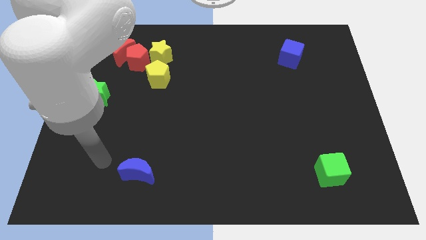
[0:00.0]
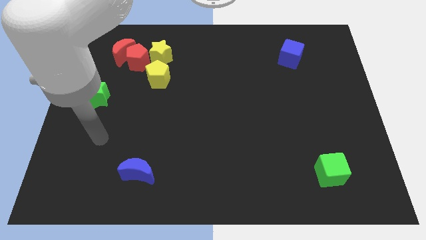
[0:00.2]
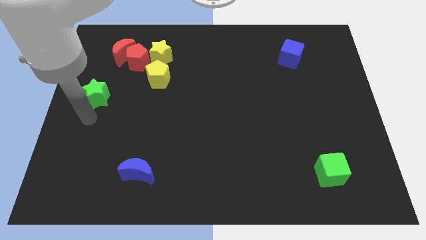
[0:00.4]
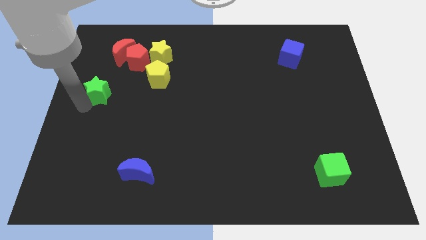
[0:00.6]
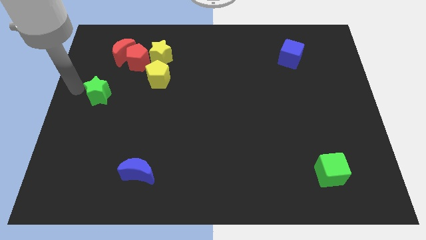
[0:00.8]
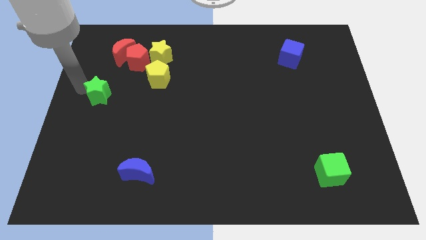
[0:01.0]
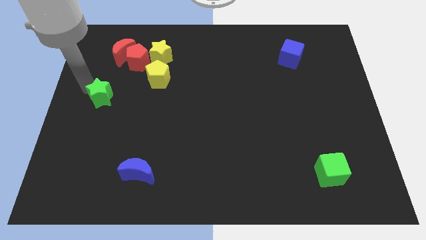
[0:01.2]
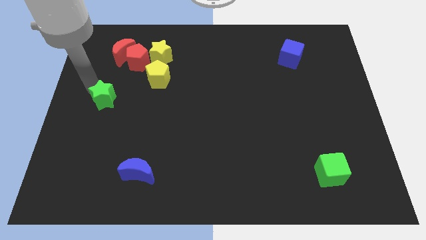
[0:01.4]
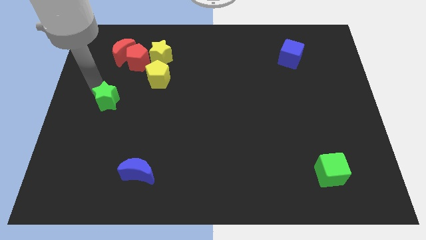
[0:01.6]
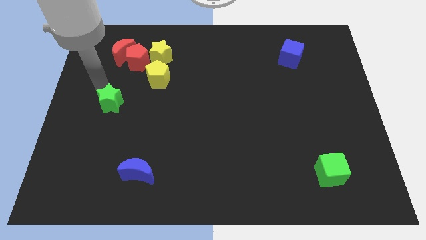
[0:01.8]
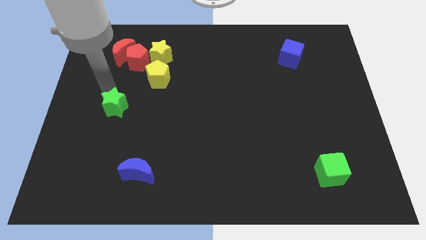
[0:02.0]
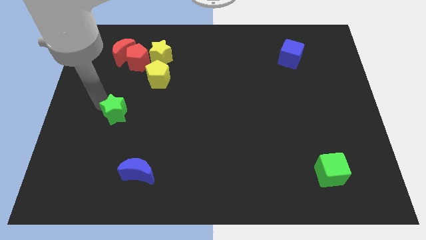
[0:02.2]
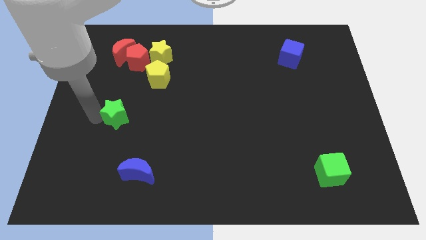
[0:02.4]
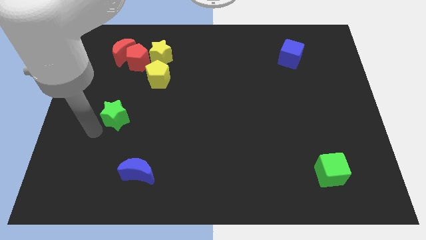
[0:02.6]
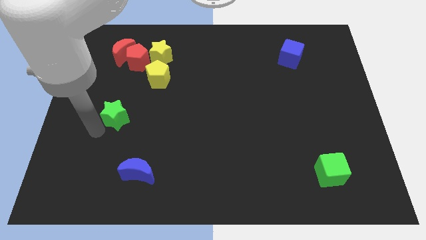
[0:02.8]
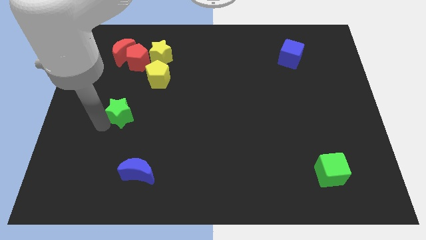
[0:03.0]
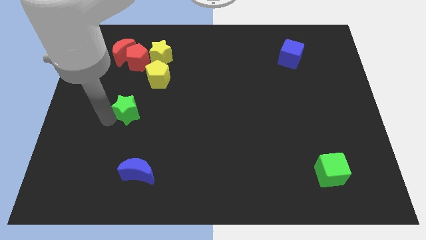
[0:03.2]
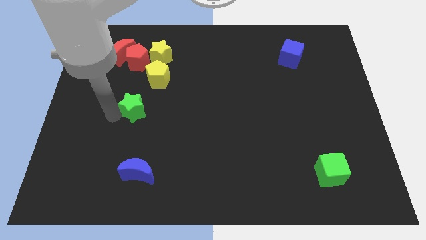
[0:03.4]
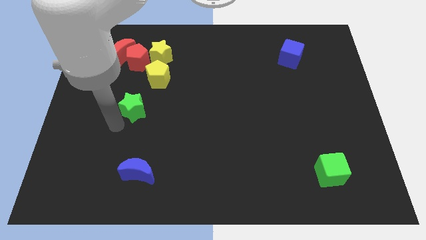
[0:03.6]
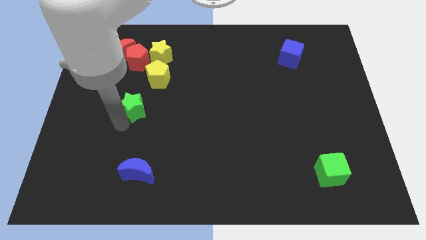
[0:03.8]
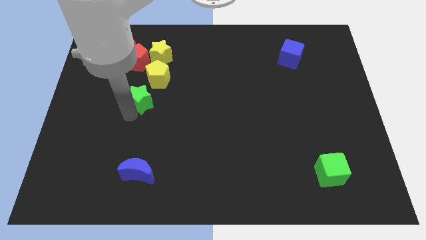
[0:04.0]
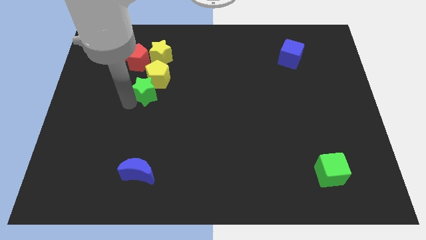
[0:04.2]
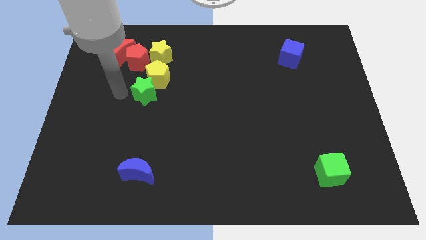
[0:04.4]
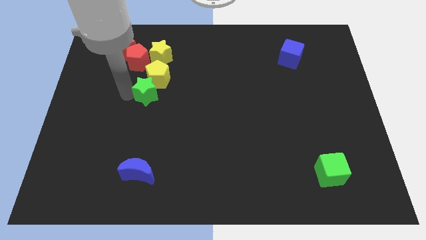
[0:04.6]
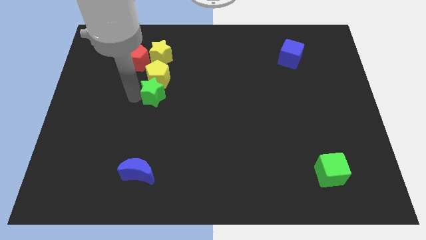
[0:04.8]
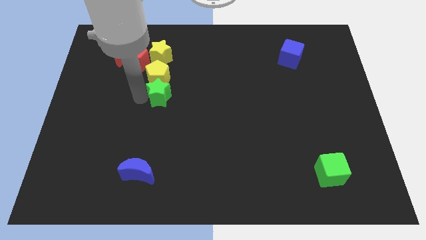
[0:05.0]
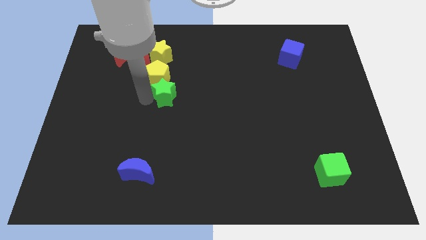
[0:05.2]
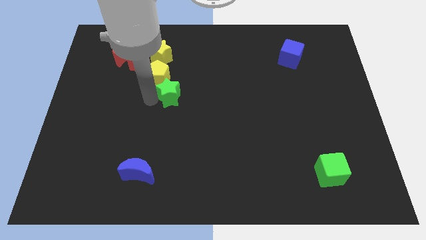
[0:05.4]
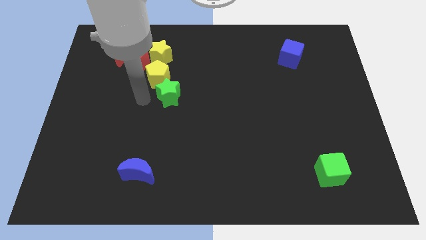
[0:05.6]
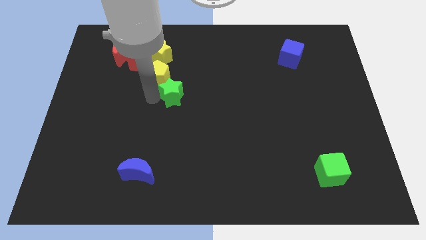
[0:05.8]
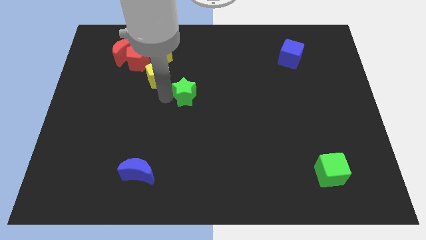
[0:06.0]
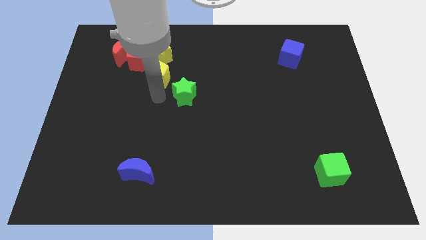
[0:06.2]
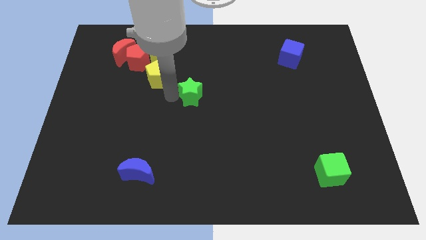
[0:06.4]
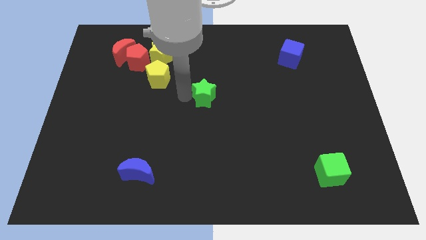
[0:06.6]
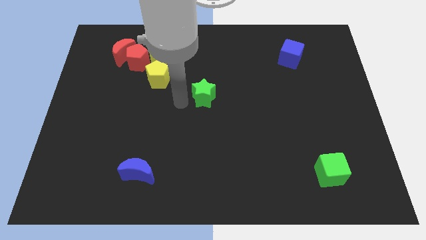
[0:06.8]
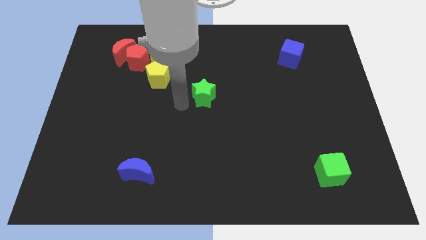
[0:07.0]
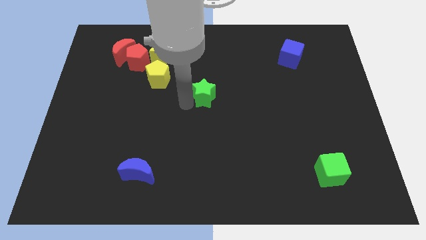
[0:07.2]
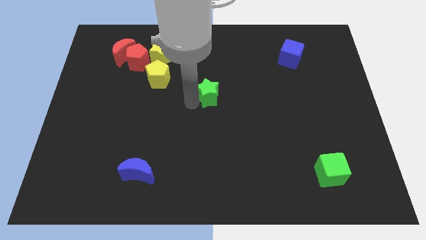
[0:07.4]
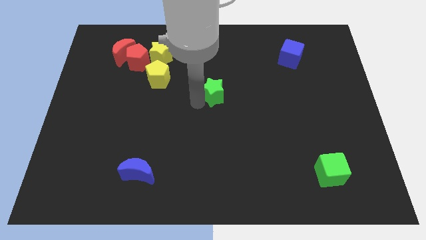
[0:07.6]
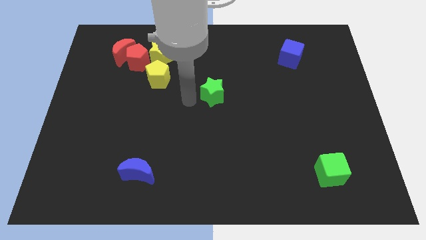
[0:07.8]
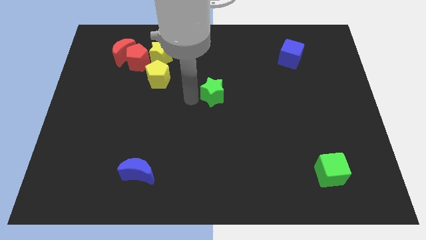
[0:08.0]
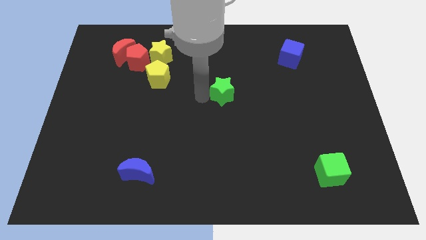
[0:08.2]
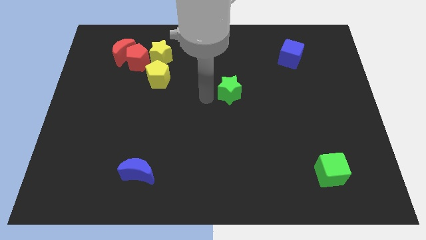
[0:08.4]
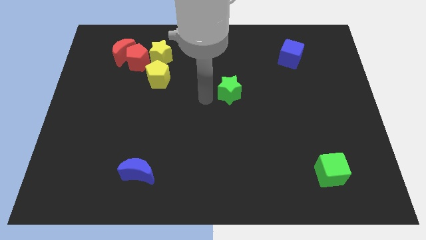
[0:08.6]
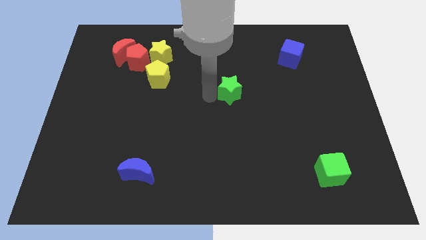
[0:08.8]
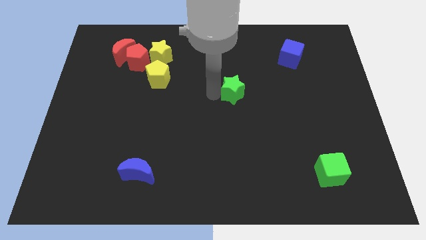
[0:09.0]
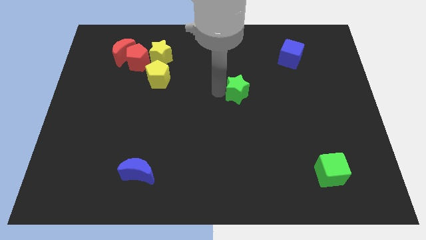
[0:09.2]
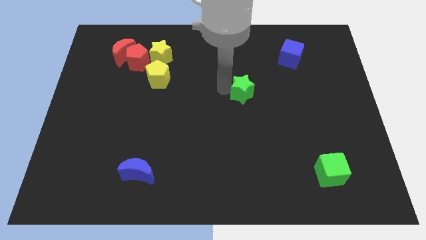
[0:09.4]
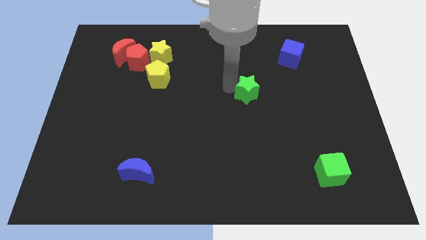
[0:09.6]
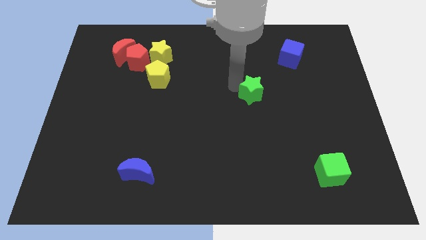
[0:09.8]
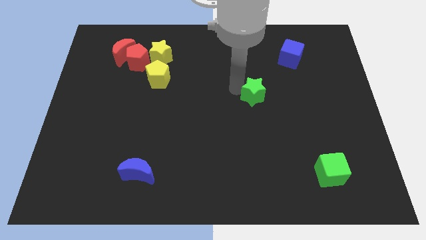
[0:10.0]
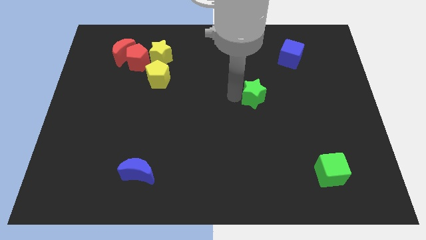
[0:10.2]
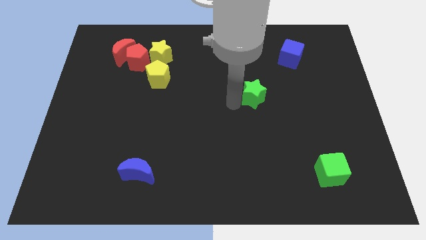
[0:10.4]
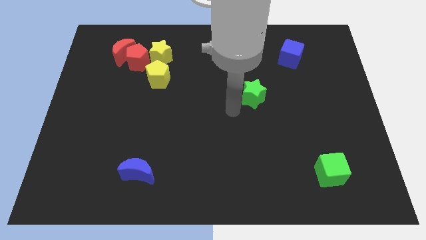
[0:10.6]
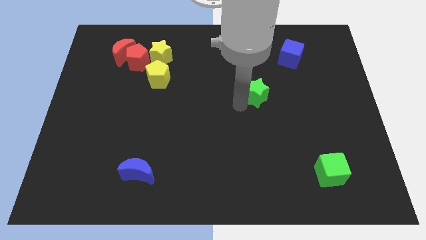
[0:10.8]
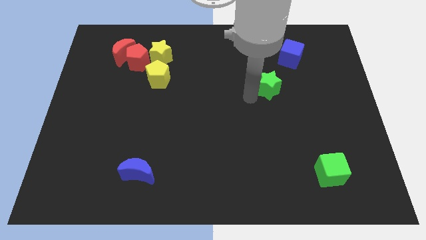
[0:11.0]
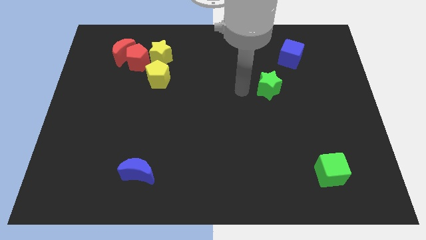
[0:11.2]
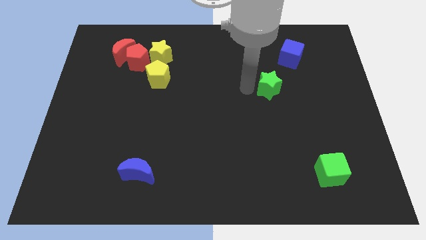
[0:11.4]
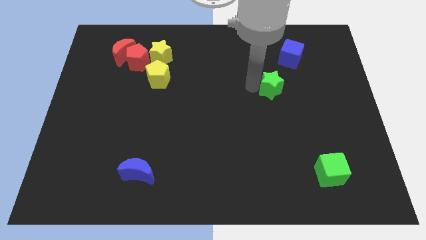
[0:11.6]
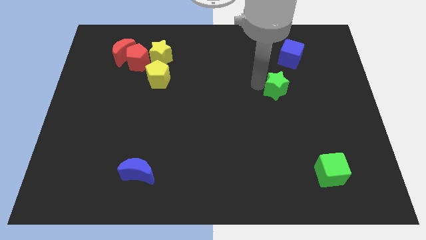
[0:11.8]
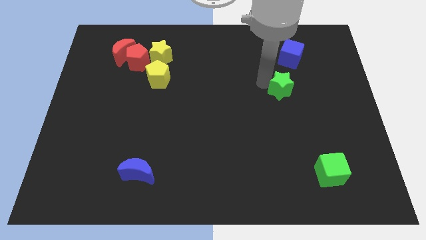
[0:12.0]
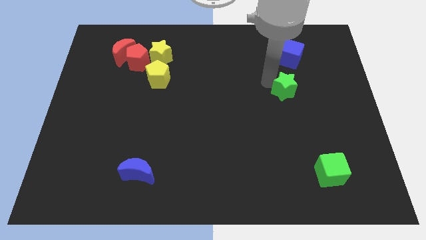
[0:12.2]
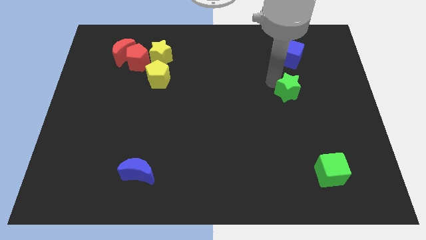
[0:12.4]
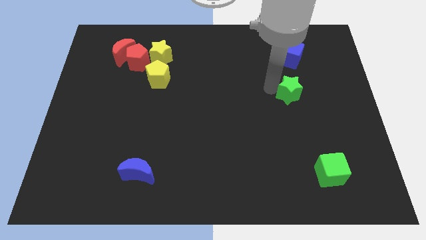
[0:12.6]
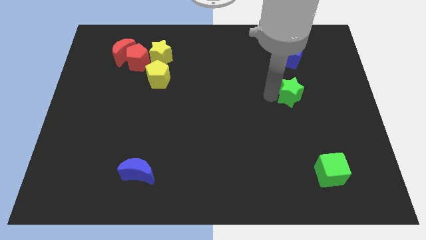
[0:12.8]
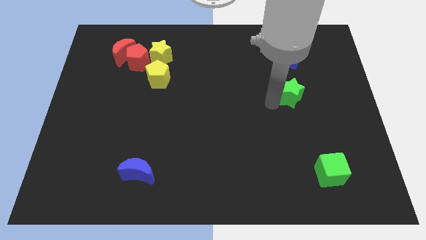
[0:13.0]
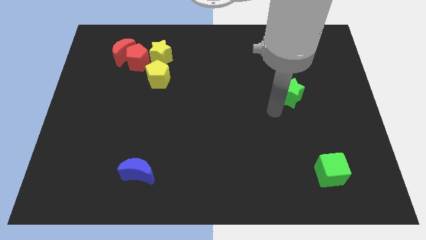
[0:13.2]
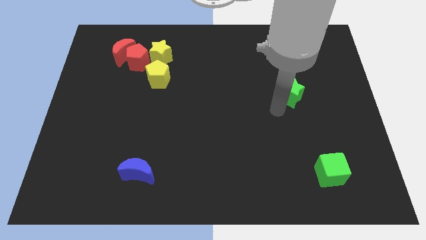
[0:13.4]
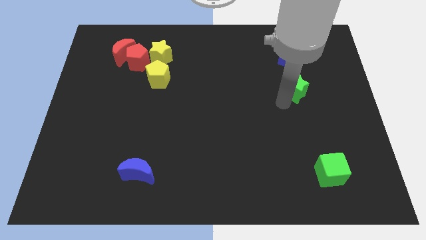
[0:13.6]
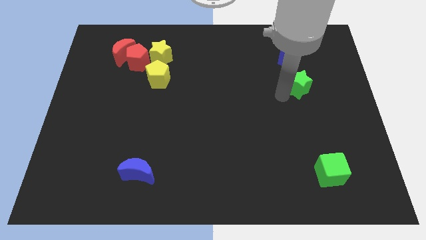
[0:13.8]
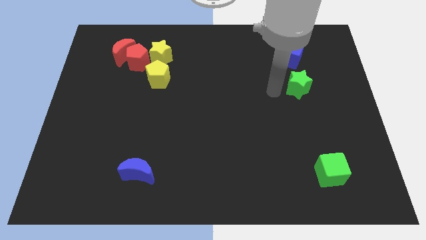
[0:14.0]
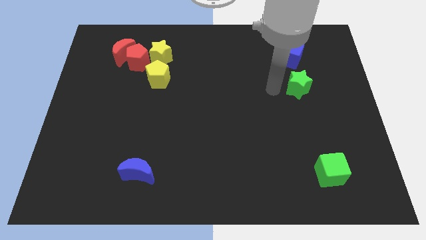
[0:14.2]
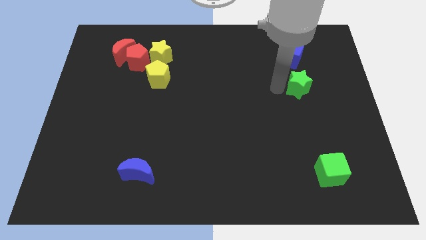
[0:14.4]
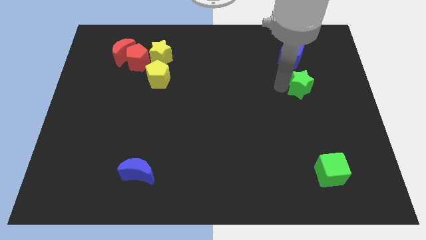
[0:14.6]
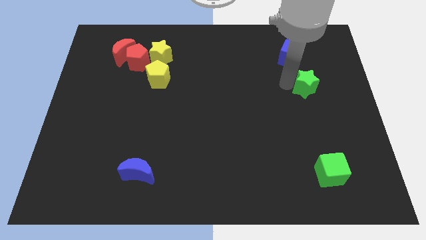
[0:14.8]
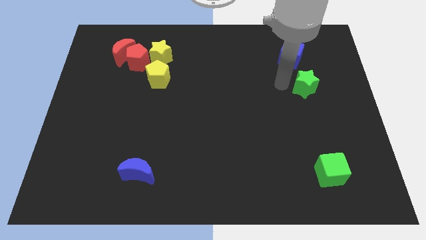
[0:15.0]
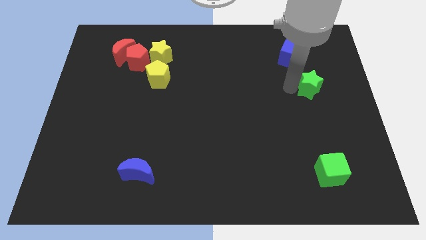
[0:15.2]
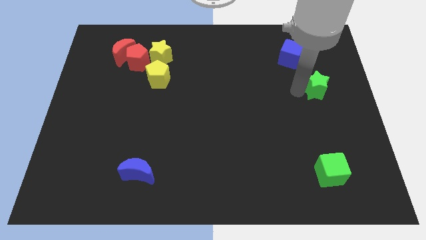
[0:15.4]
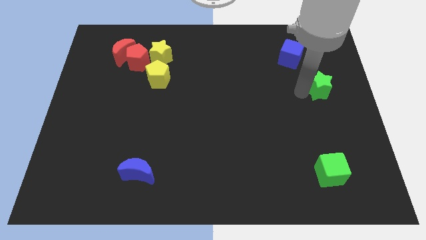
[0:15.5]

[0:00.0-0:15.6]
push the green star to the right side of the board
